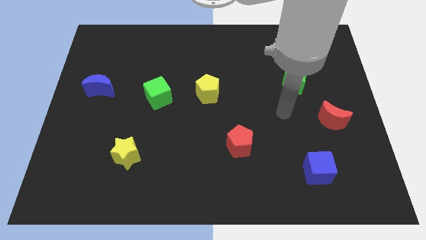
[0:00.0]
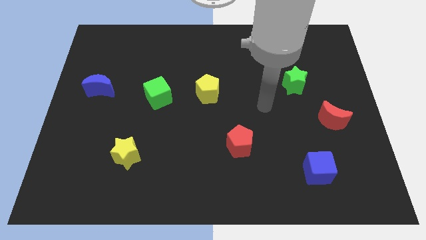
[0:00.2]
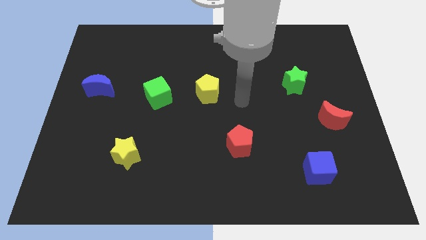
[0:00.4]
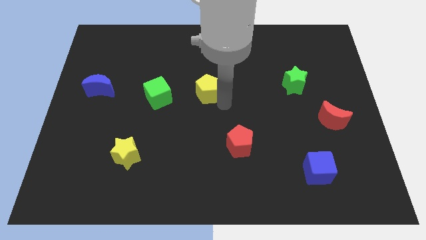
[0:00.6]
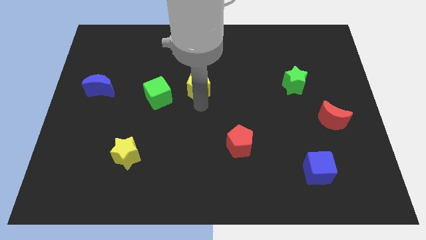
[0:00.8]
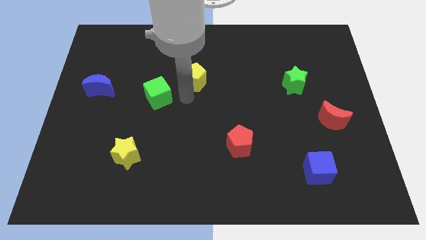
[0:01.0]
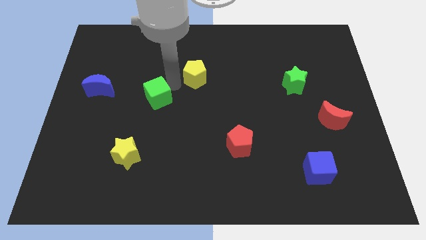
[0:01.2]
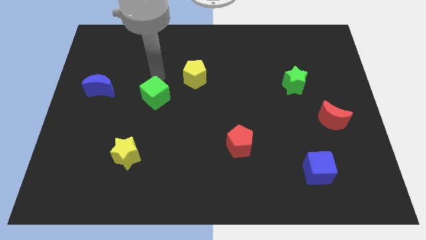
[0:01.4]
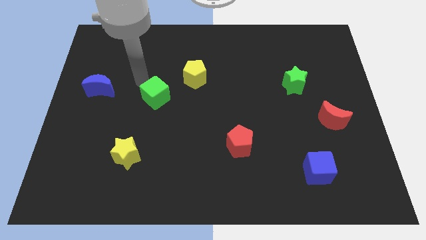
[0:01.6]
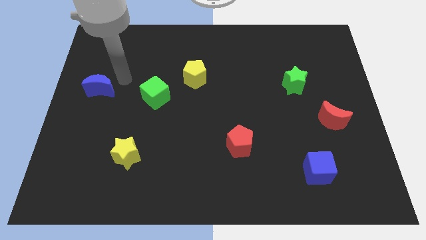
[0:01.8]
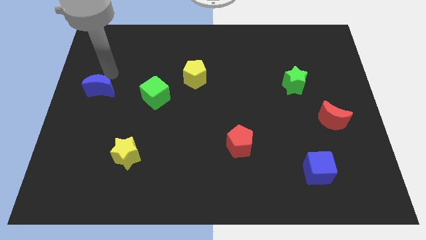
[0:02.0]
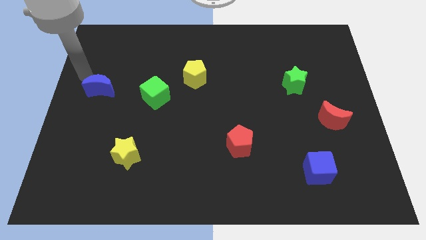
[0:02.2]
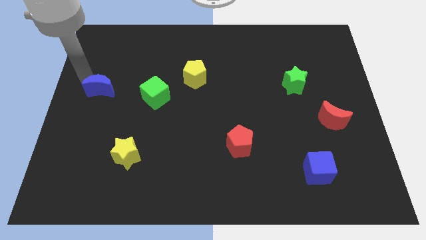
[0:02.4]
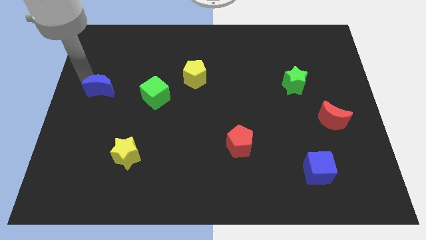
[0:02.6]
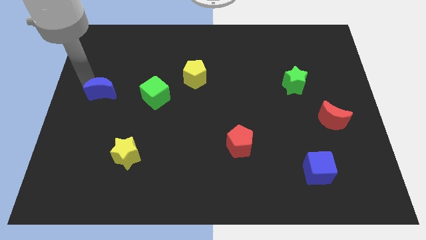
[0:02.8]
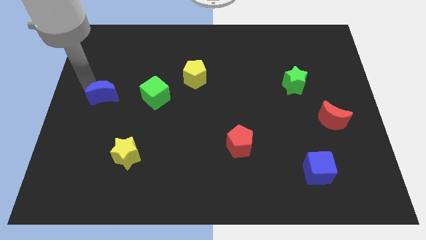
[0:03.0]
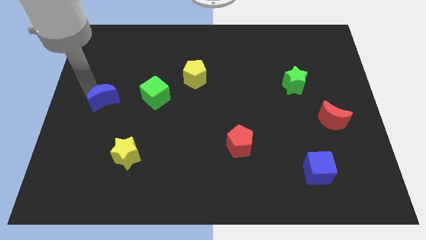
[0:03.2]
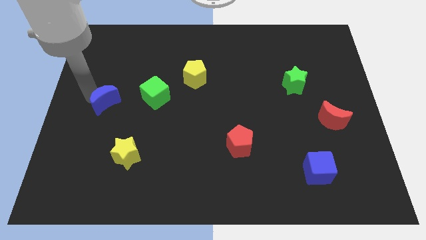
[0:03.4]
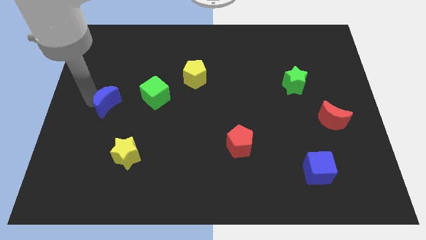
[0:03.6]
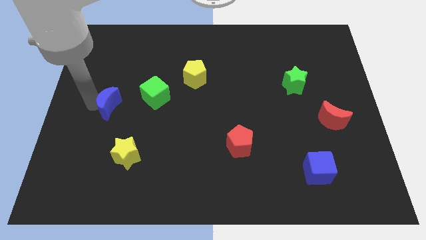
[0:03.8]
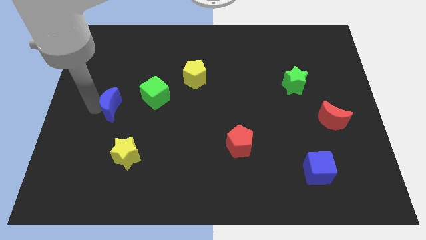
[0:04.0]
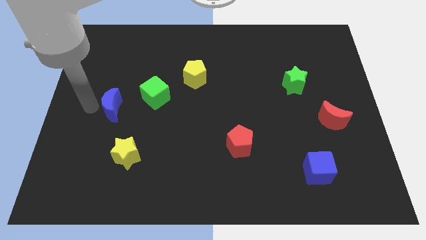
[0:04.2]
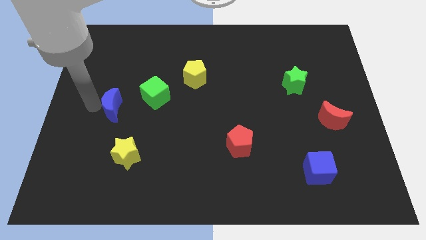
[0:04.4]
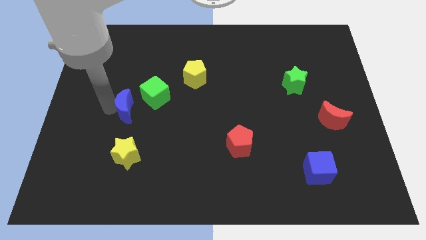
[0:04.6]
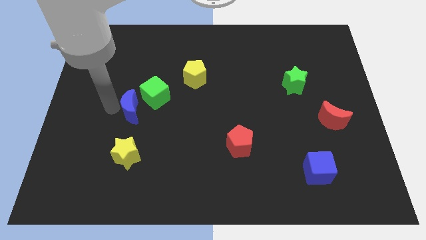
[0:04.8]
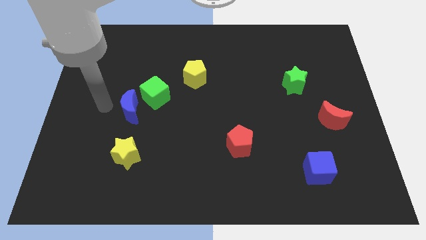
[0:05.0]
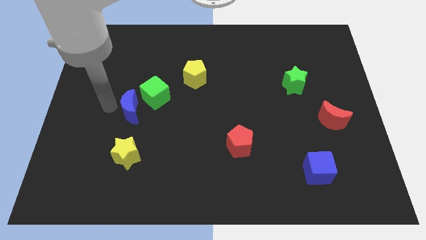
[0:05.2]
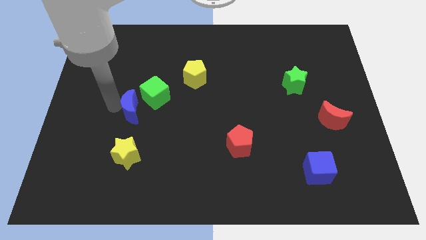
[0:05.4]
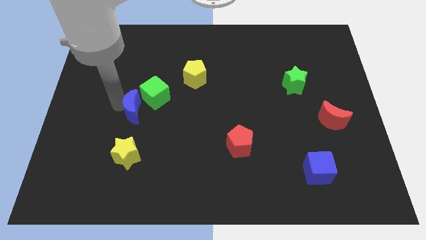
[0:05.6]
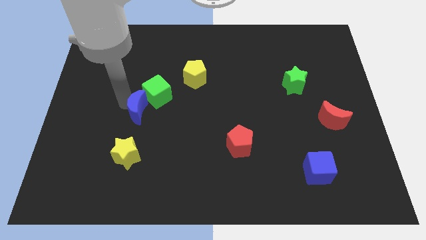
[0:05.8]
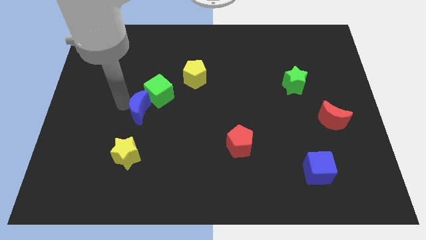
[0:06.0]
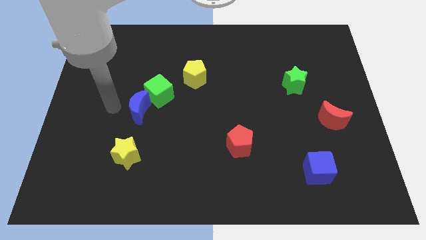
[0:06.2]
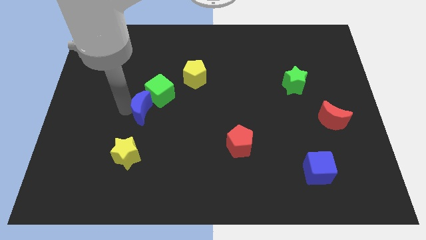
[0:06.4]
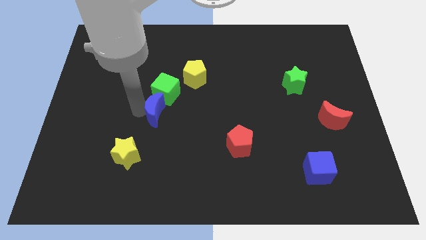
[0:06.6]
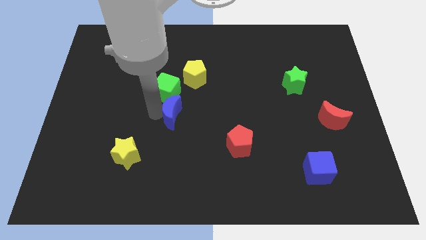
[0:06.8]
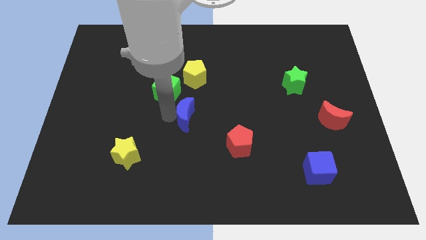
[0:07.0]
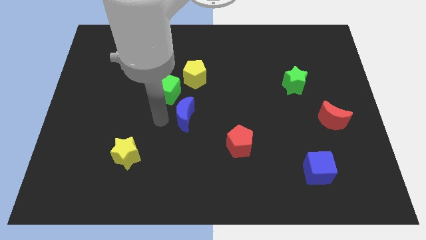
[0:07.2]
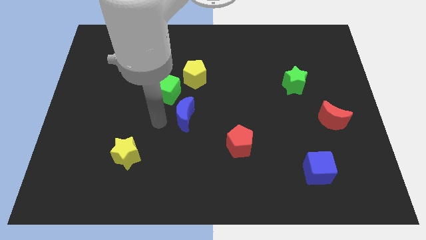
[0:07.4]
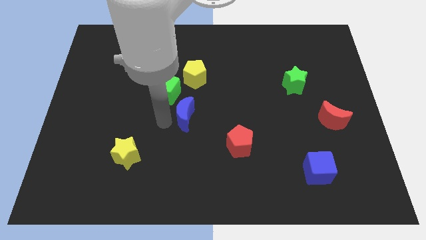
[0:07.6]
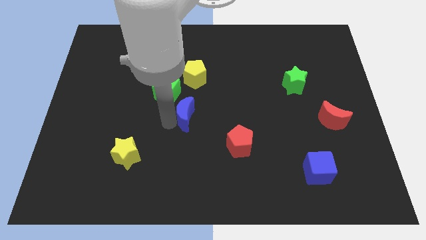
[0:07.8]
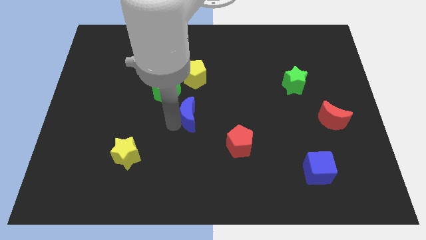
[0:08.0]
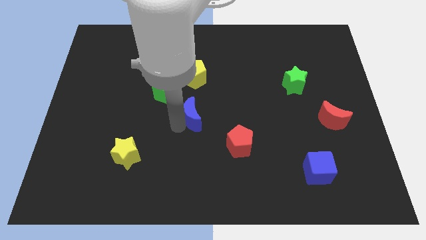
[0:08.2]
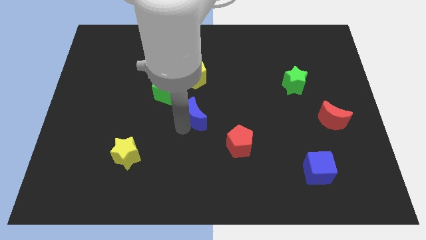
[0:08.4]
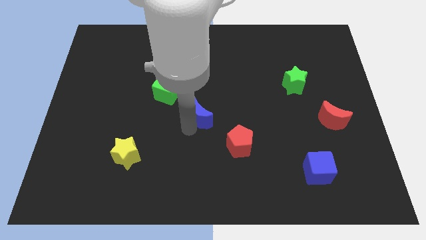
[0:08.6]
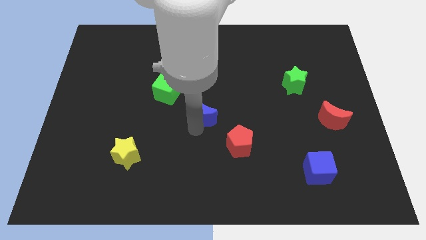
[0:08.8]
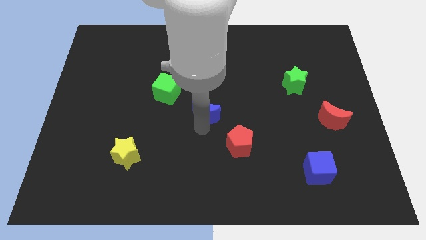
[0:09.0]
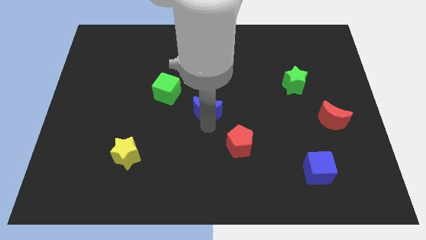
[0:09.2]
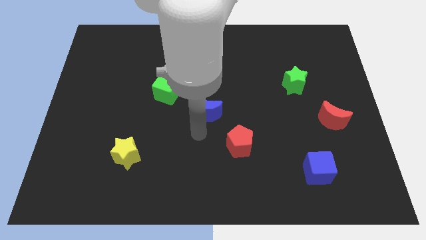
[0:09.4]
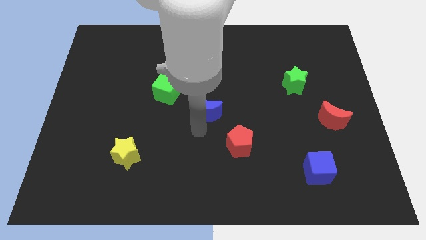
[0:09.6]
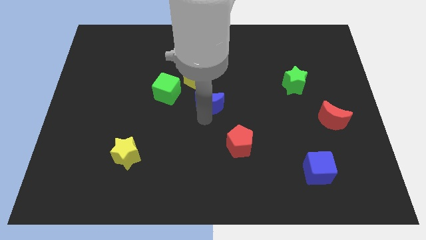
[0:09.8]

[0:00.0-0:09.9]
slide the blue moon to the bottom right of the yellow pentagon

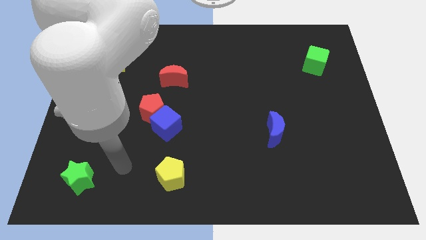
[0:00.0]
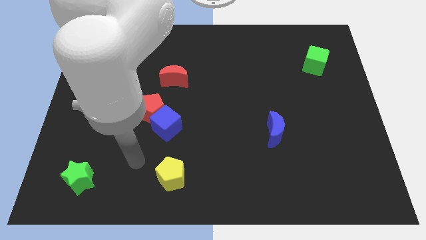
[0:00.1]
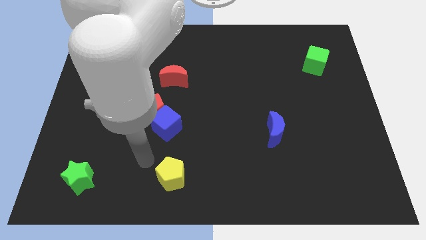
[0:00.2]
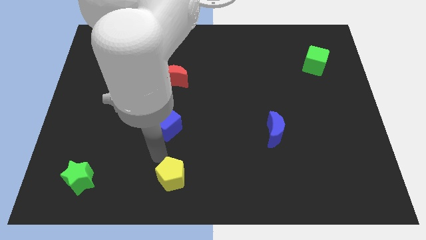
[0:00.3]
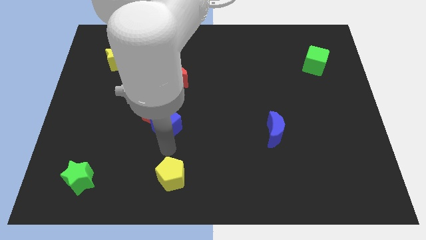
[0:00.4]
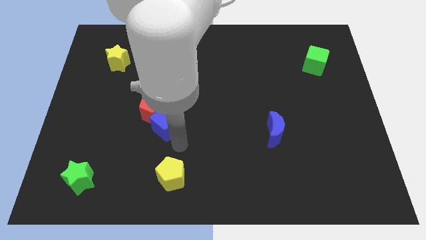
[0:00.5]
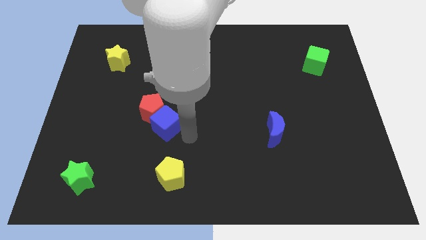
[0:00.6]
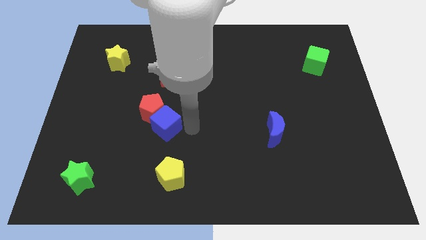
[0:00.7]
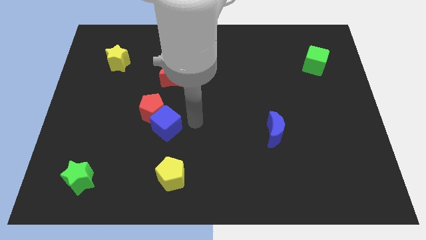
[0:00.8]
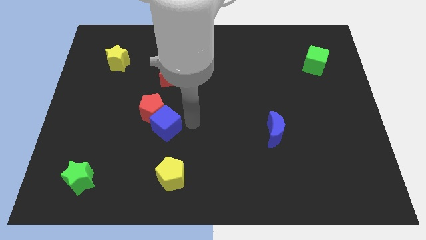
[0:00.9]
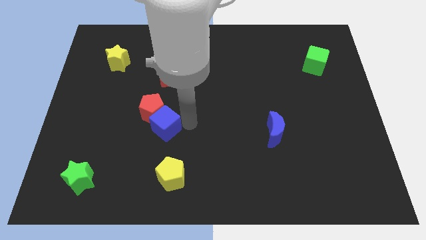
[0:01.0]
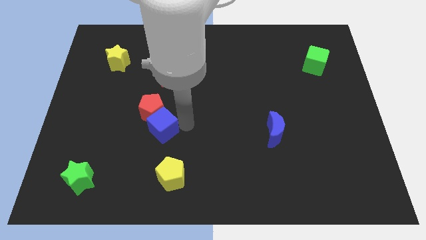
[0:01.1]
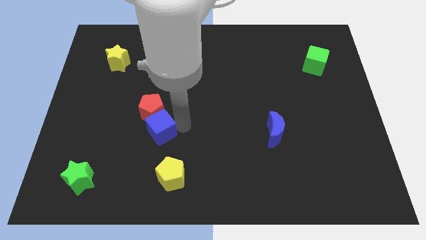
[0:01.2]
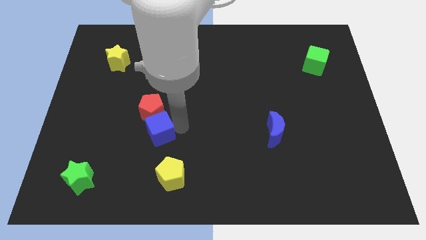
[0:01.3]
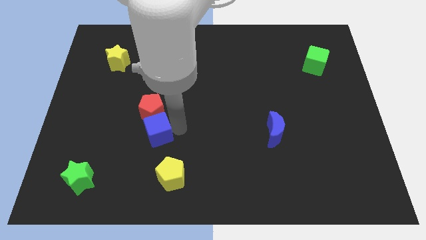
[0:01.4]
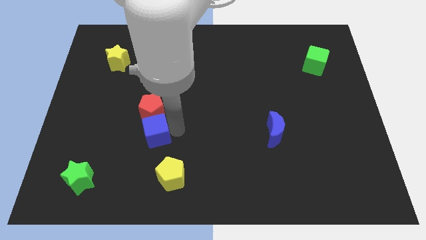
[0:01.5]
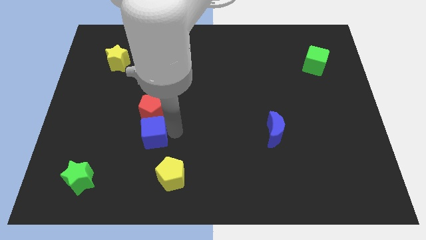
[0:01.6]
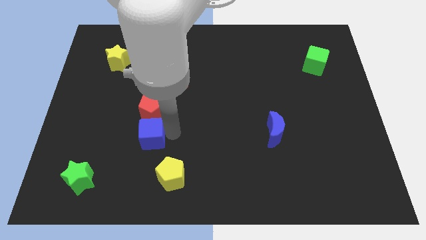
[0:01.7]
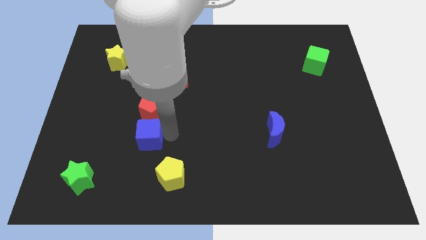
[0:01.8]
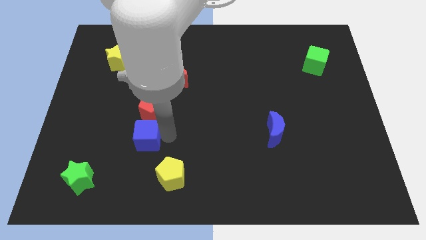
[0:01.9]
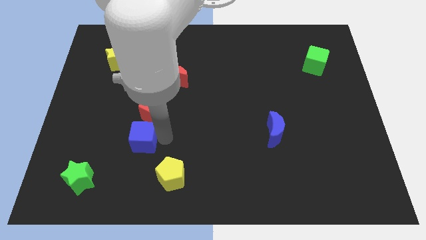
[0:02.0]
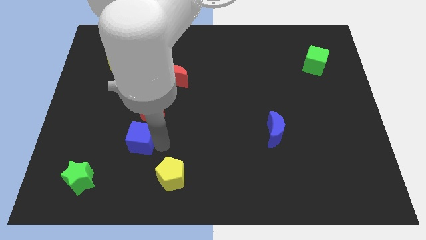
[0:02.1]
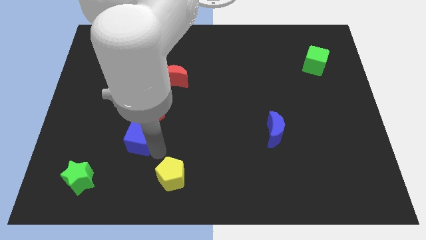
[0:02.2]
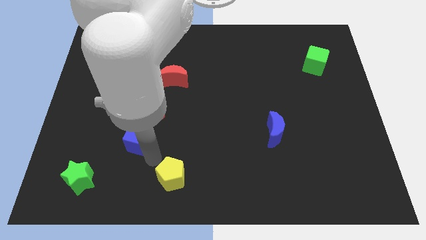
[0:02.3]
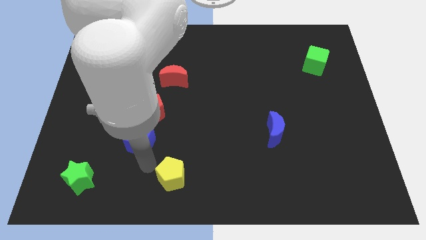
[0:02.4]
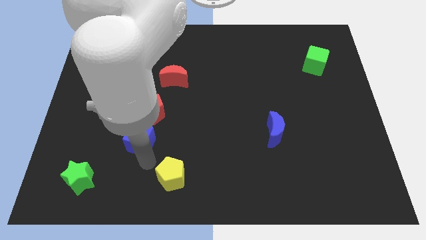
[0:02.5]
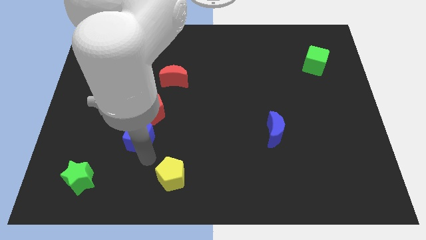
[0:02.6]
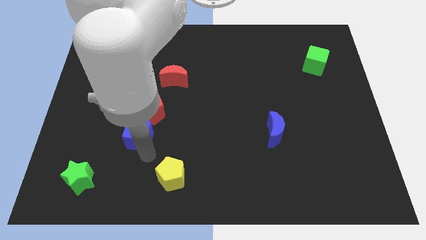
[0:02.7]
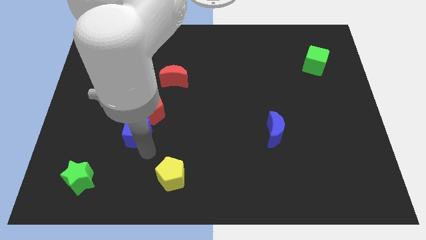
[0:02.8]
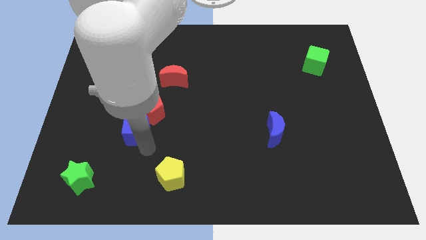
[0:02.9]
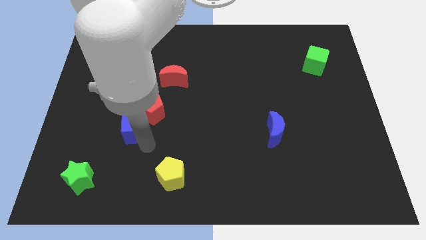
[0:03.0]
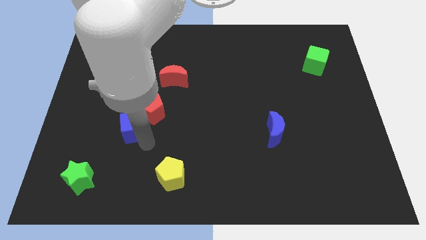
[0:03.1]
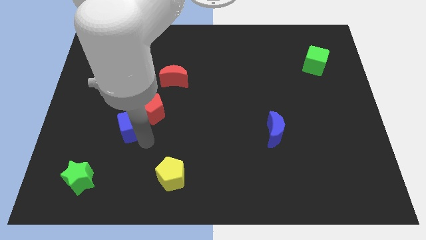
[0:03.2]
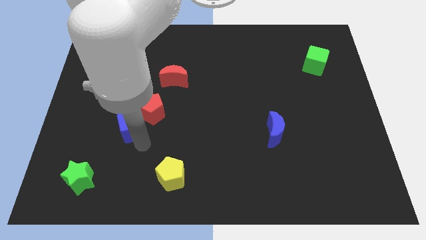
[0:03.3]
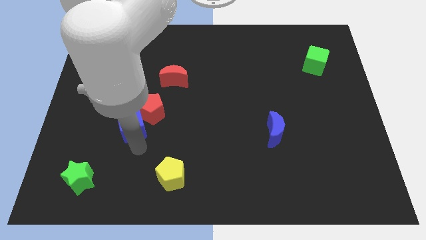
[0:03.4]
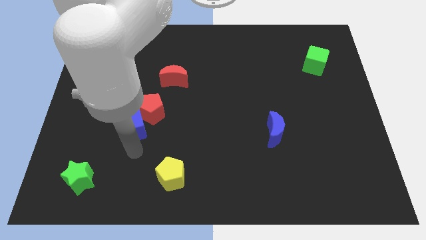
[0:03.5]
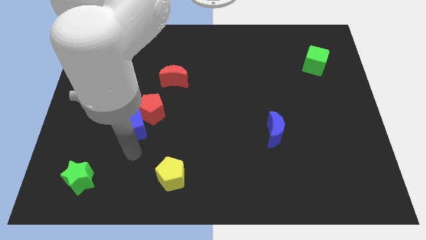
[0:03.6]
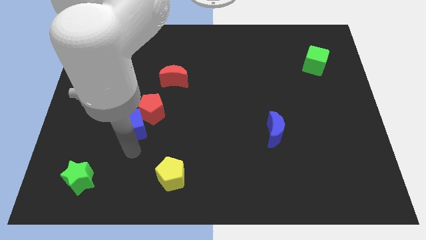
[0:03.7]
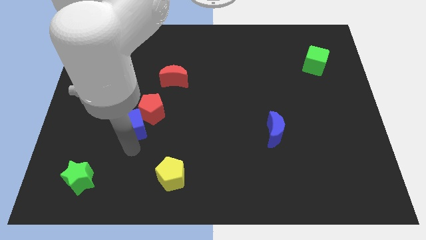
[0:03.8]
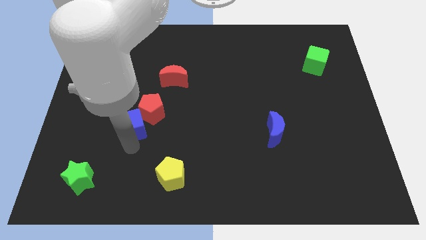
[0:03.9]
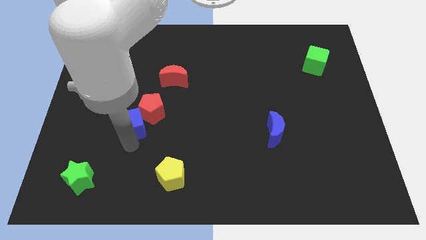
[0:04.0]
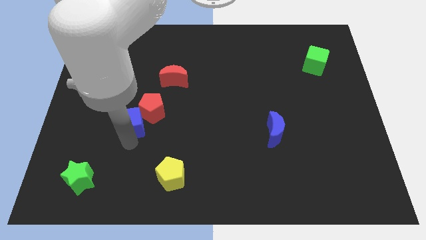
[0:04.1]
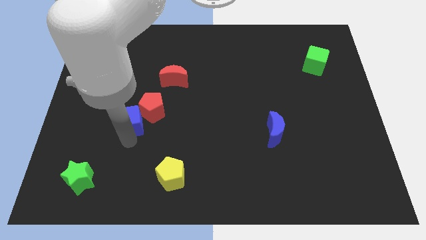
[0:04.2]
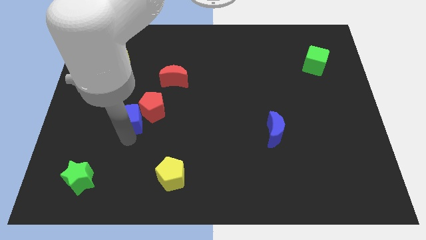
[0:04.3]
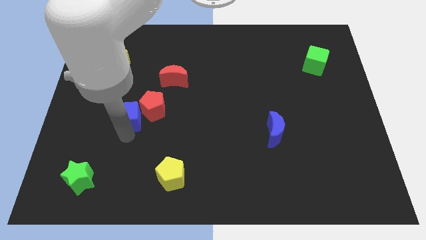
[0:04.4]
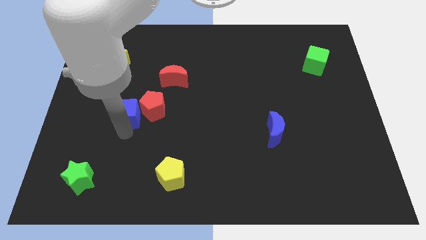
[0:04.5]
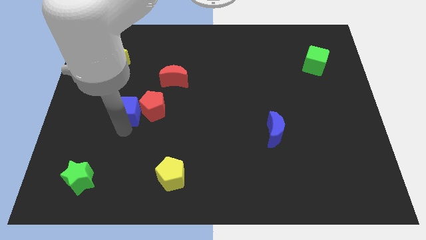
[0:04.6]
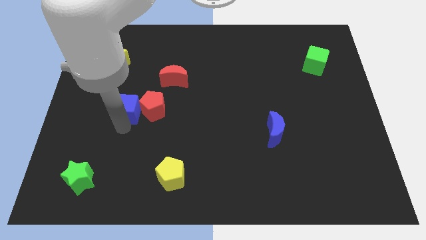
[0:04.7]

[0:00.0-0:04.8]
slide the blue cube to the top left side of the red pentagon
